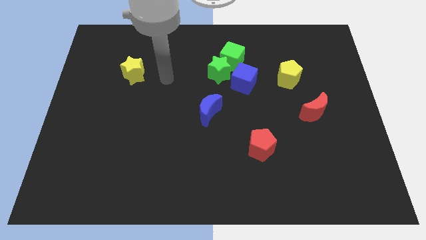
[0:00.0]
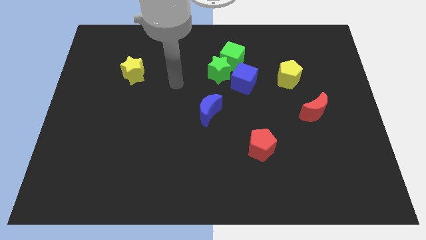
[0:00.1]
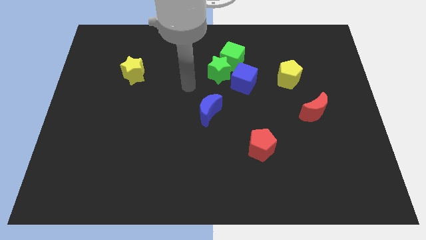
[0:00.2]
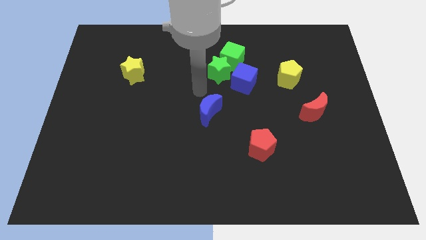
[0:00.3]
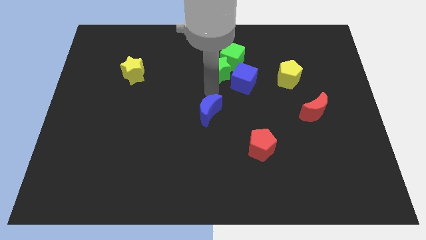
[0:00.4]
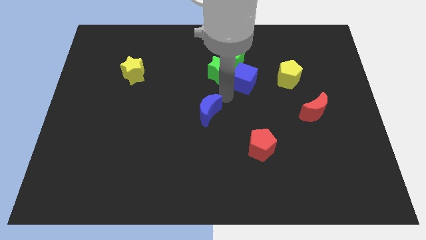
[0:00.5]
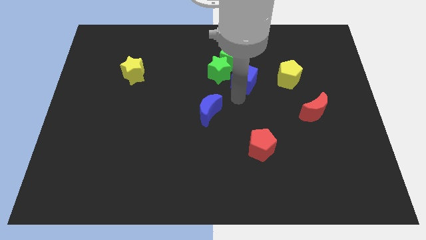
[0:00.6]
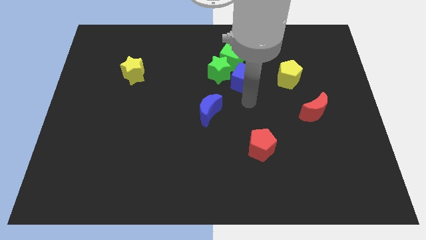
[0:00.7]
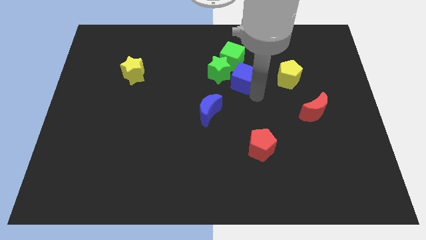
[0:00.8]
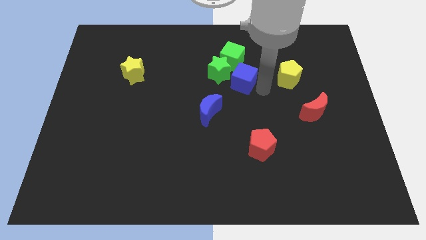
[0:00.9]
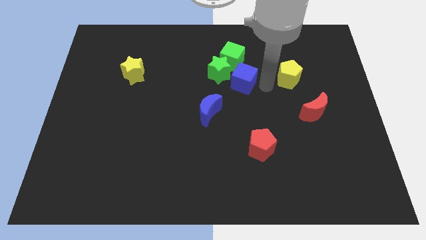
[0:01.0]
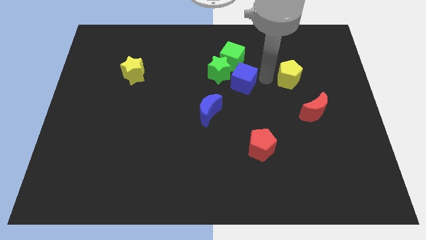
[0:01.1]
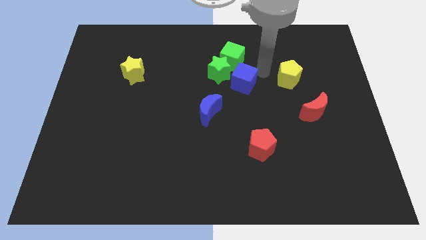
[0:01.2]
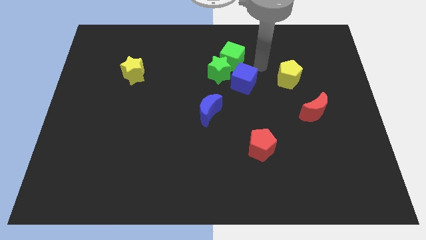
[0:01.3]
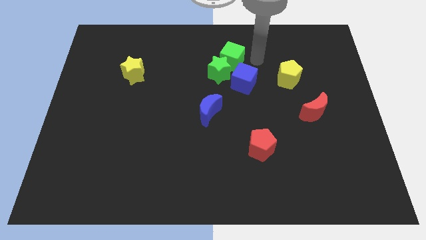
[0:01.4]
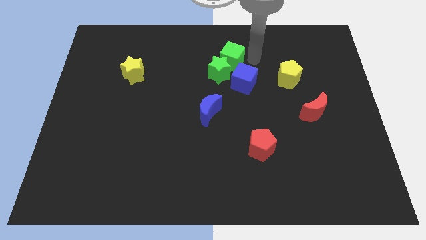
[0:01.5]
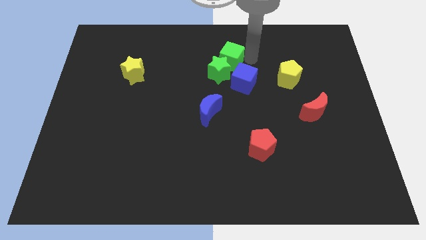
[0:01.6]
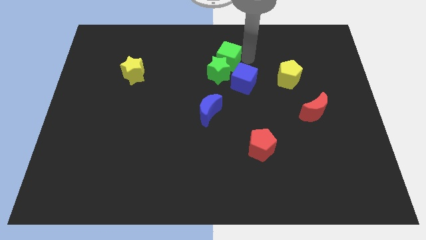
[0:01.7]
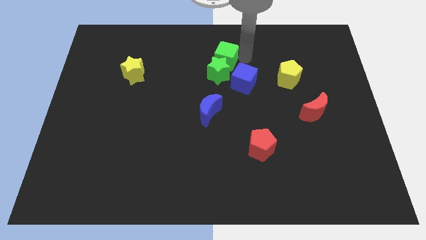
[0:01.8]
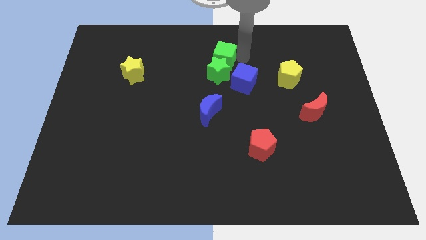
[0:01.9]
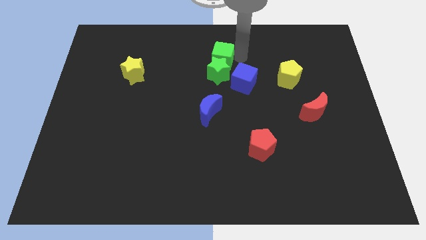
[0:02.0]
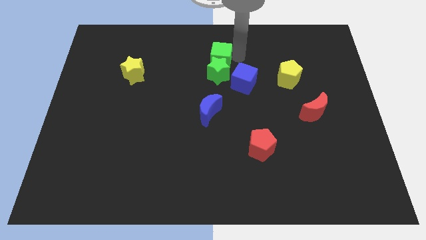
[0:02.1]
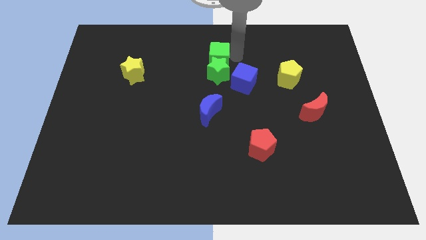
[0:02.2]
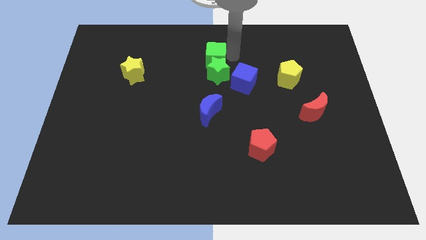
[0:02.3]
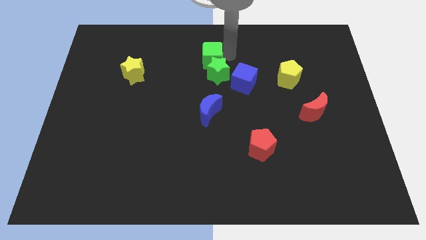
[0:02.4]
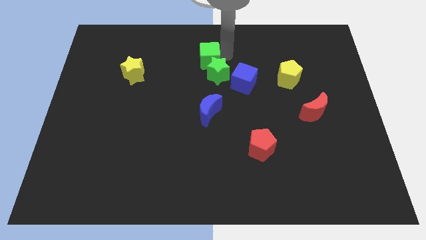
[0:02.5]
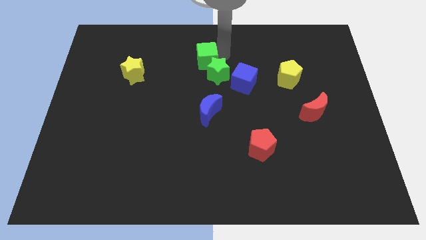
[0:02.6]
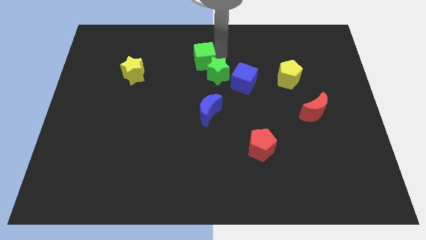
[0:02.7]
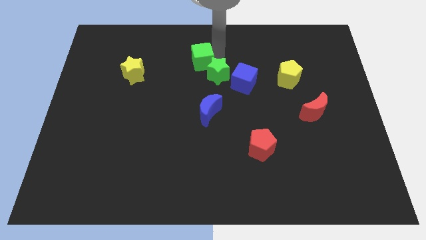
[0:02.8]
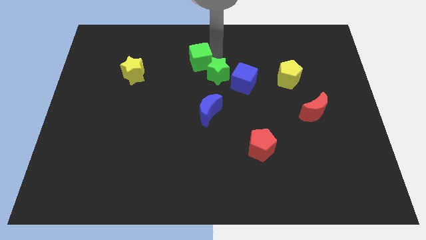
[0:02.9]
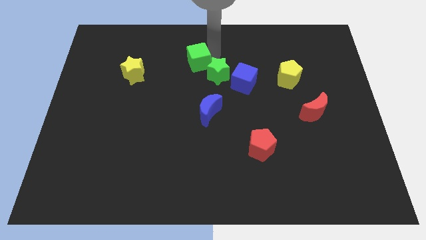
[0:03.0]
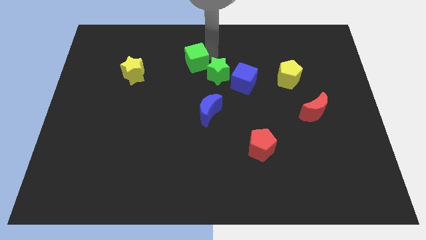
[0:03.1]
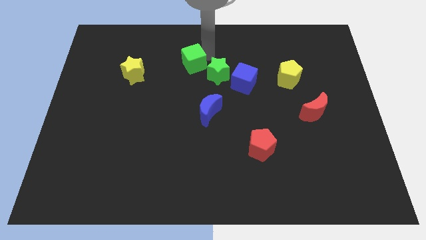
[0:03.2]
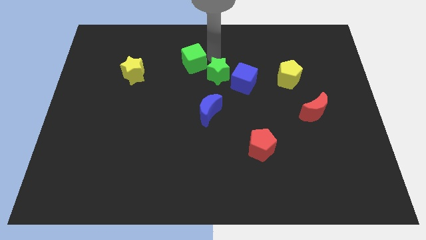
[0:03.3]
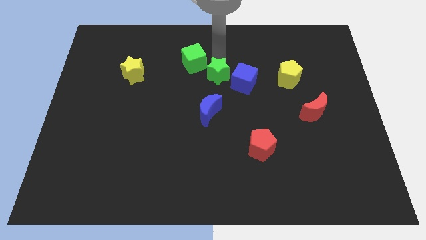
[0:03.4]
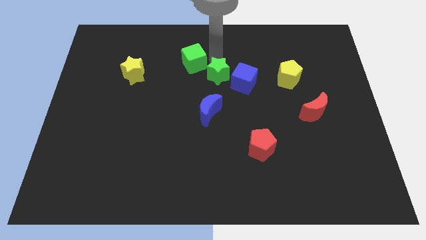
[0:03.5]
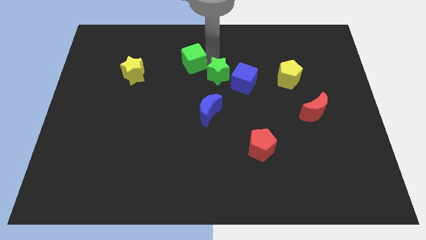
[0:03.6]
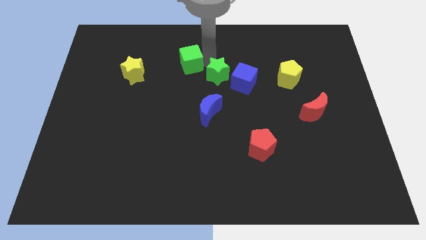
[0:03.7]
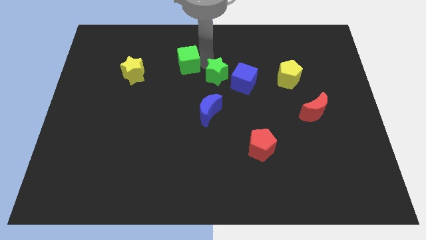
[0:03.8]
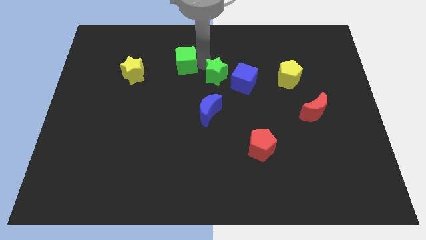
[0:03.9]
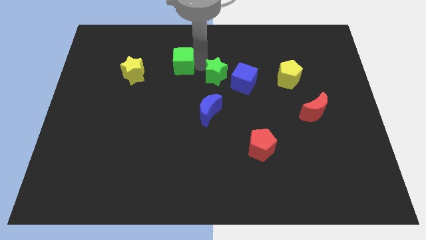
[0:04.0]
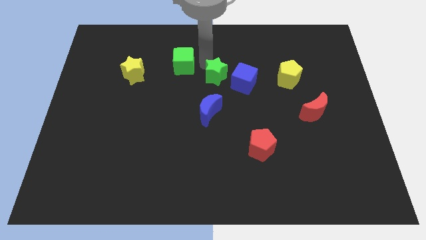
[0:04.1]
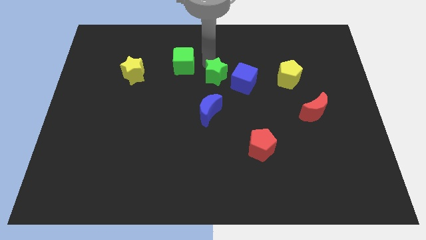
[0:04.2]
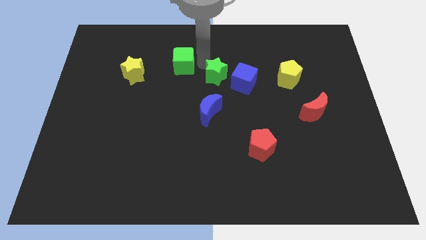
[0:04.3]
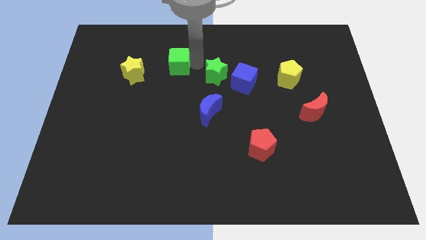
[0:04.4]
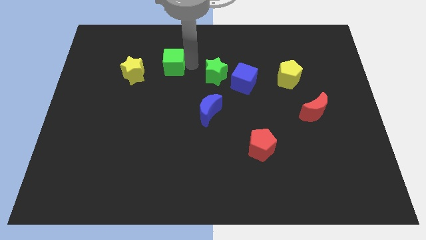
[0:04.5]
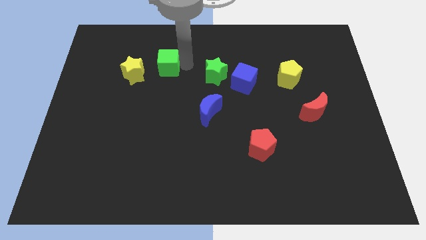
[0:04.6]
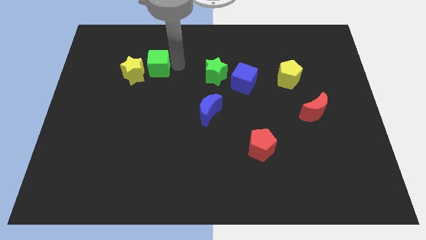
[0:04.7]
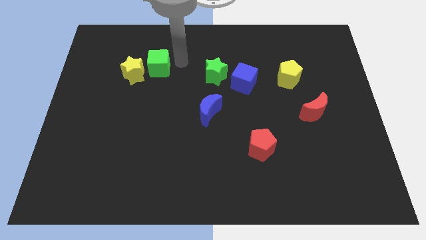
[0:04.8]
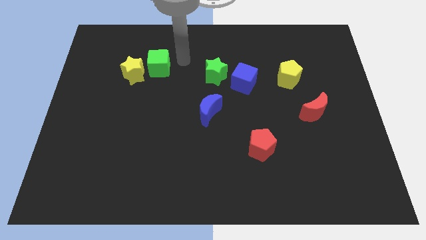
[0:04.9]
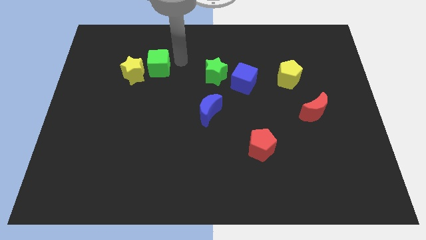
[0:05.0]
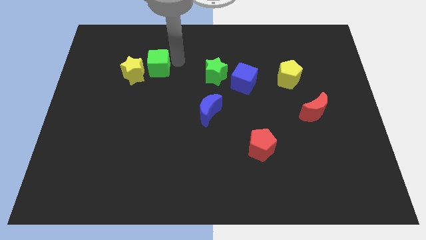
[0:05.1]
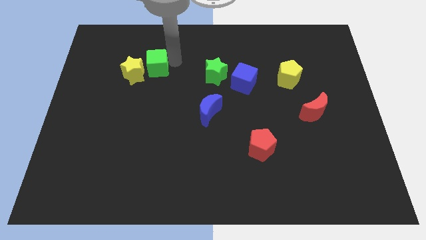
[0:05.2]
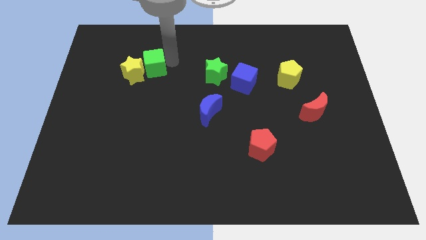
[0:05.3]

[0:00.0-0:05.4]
put the green cube to the yellow star

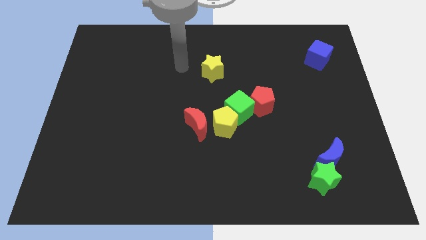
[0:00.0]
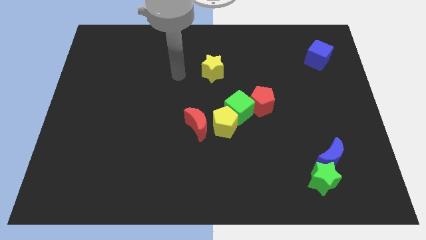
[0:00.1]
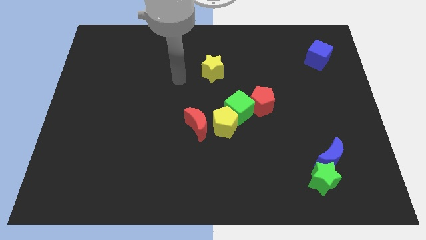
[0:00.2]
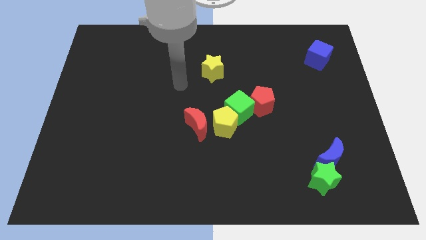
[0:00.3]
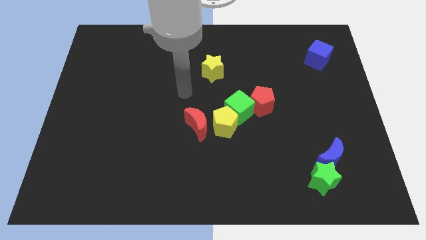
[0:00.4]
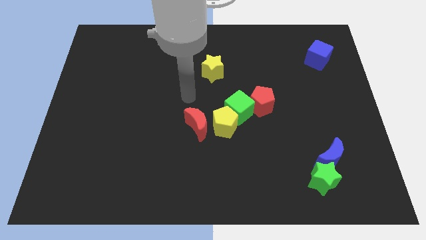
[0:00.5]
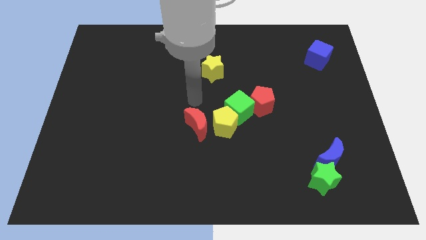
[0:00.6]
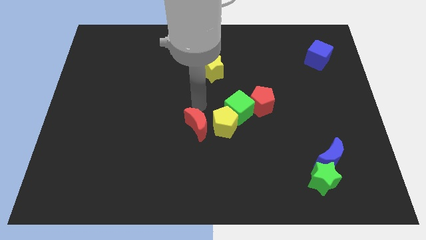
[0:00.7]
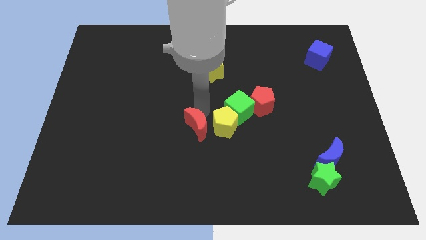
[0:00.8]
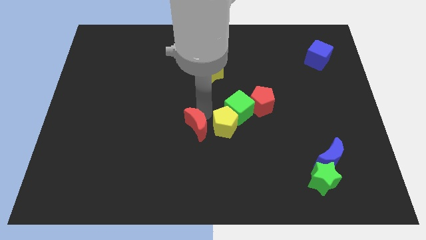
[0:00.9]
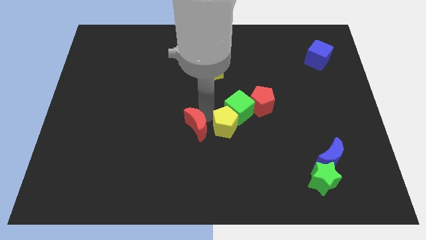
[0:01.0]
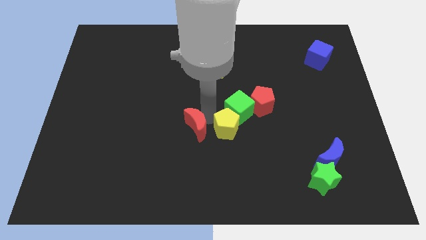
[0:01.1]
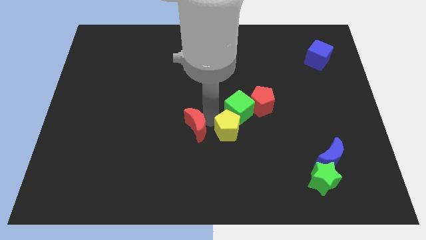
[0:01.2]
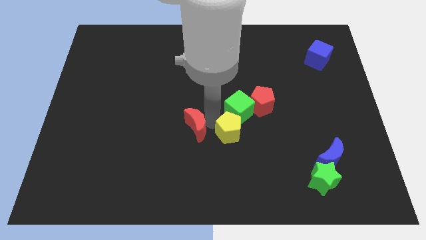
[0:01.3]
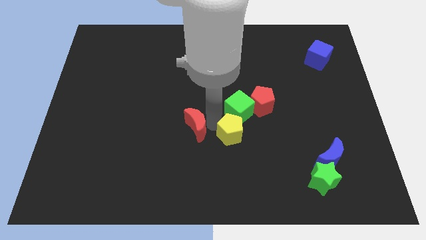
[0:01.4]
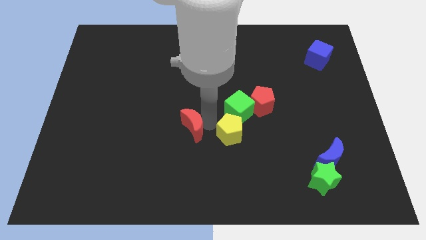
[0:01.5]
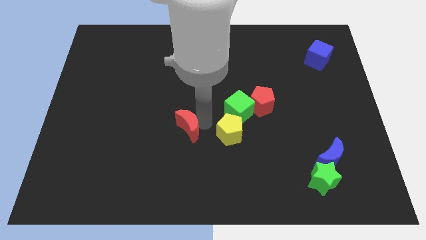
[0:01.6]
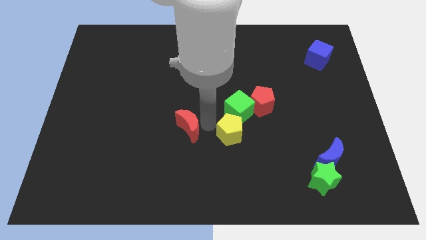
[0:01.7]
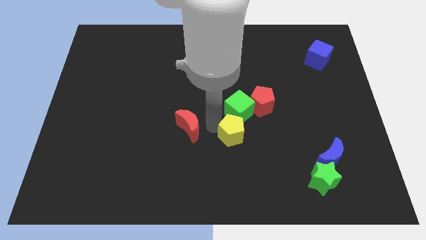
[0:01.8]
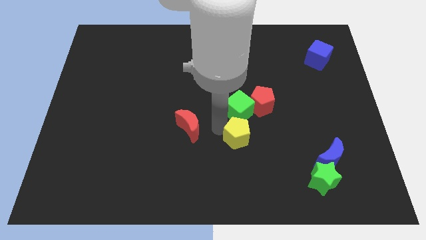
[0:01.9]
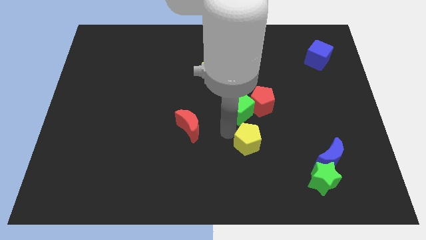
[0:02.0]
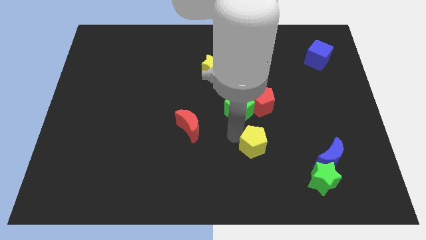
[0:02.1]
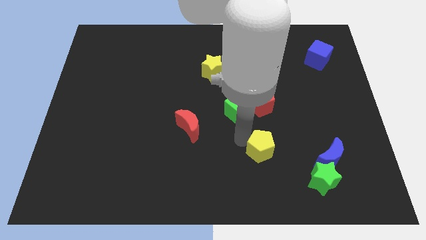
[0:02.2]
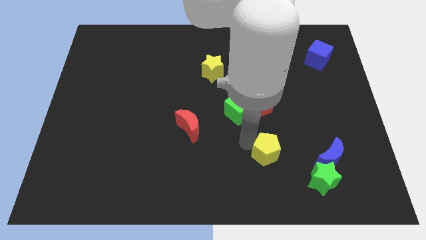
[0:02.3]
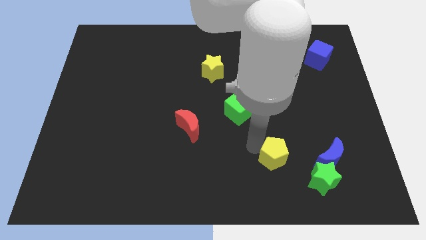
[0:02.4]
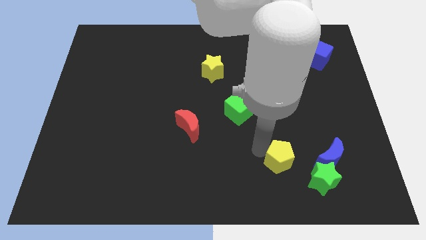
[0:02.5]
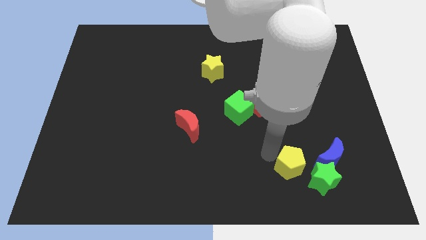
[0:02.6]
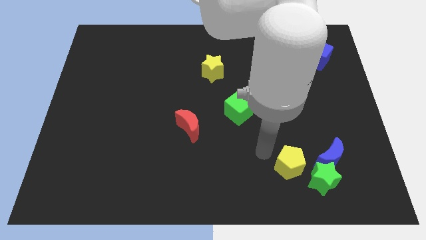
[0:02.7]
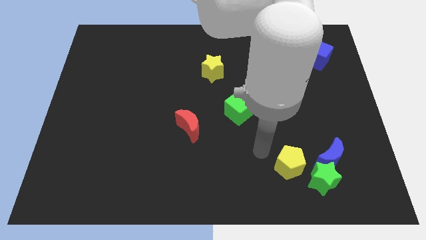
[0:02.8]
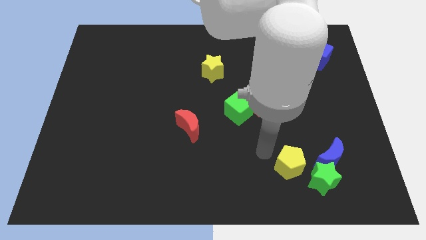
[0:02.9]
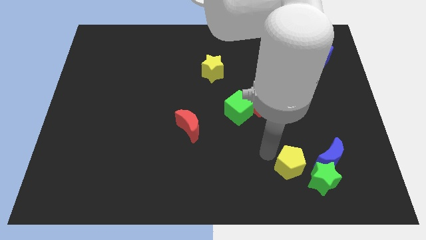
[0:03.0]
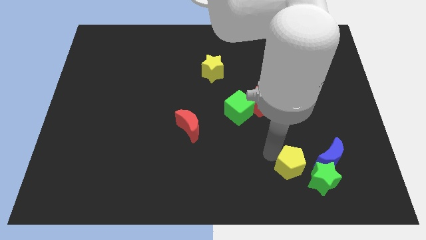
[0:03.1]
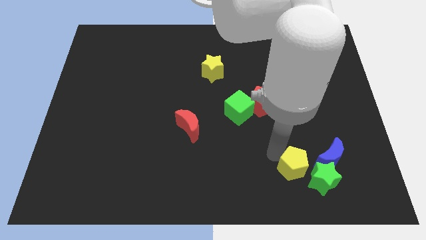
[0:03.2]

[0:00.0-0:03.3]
put the yellow pentagon towards the green star
